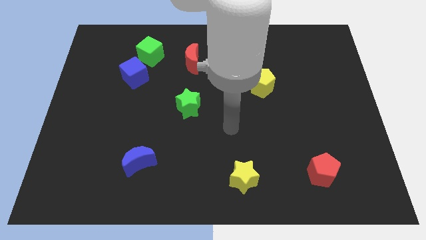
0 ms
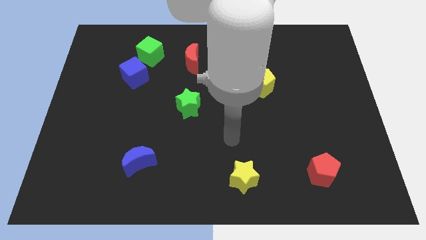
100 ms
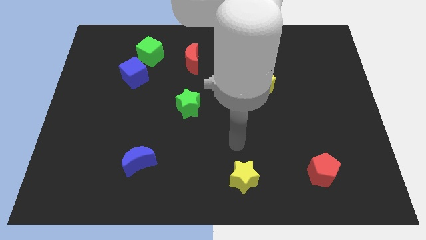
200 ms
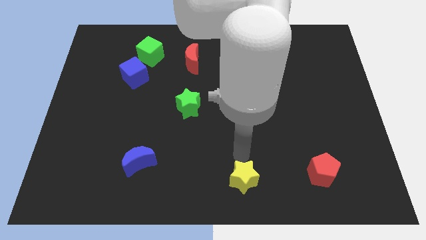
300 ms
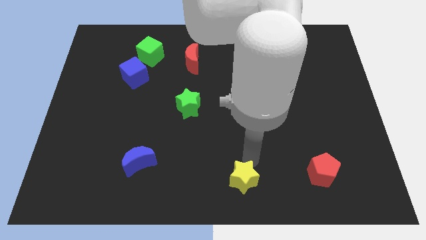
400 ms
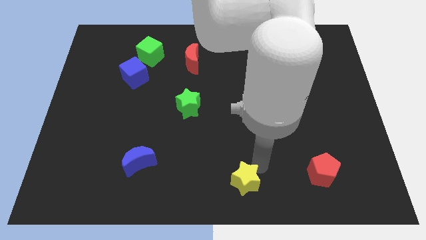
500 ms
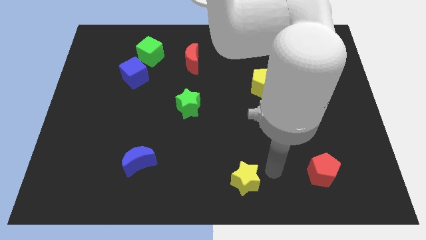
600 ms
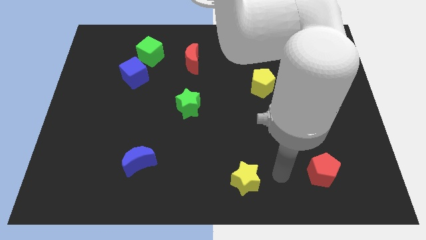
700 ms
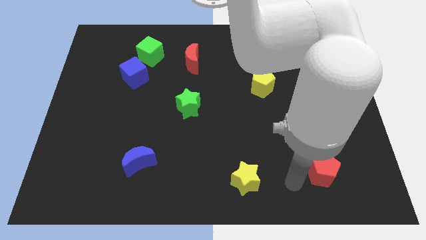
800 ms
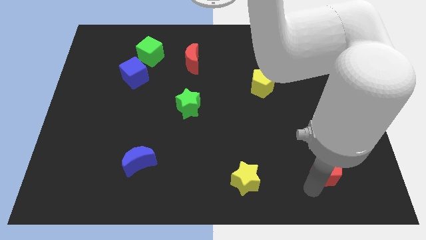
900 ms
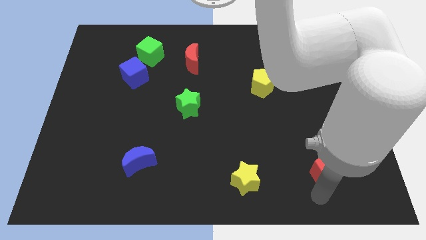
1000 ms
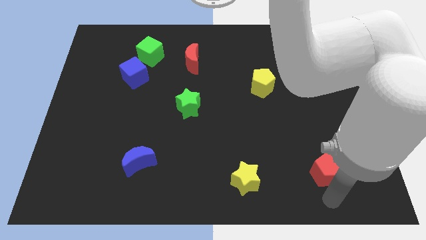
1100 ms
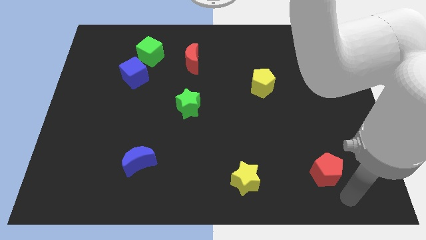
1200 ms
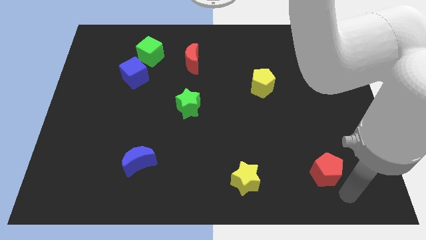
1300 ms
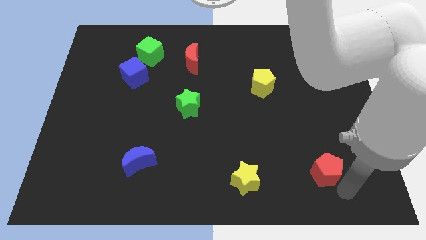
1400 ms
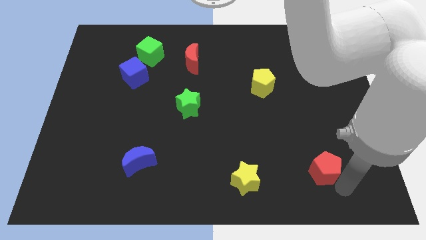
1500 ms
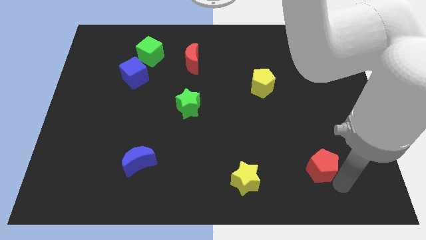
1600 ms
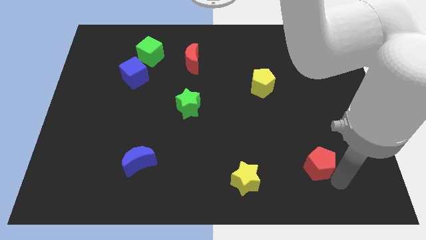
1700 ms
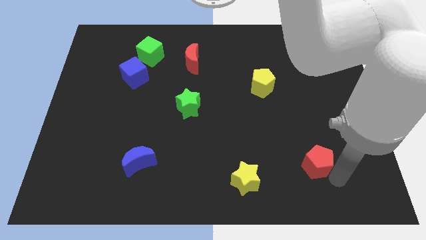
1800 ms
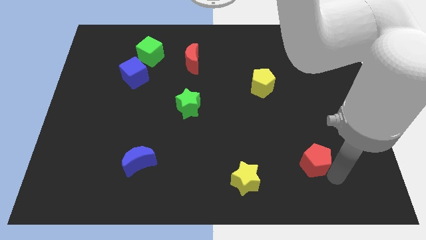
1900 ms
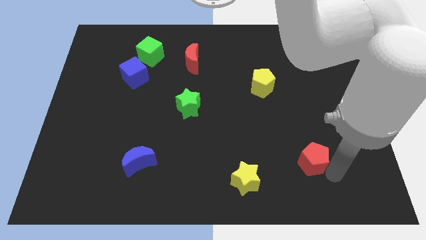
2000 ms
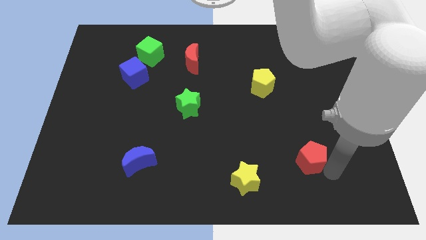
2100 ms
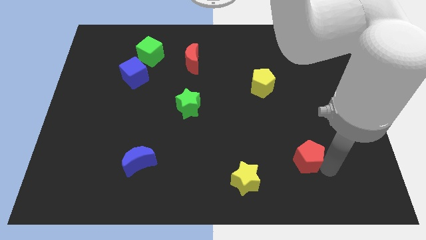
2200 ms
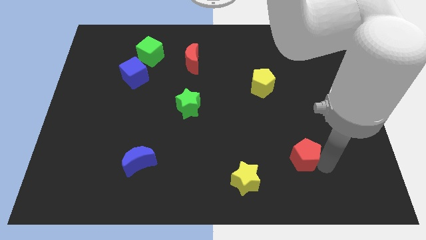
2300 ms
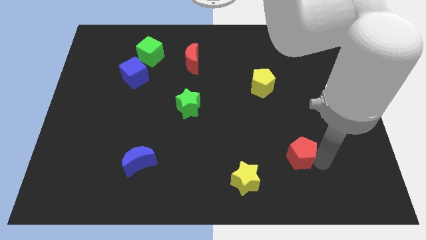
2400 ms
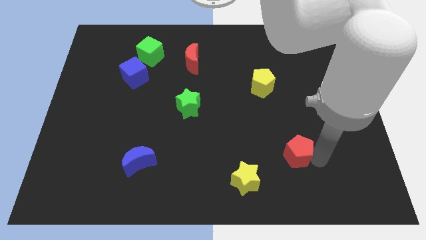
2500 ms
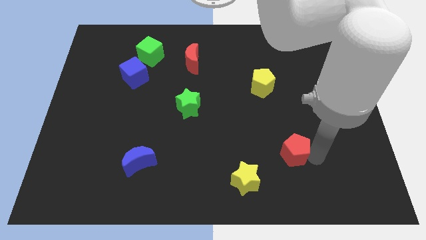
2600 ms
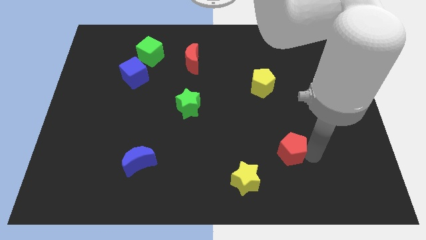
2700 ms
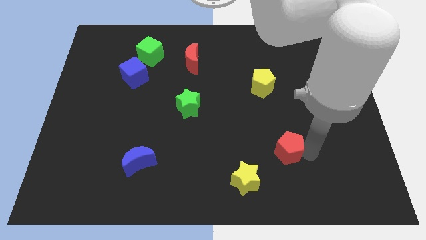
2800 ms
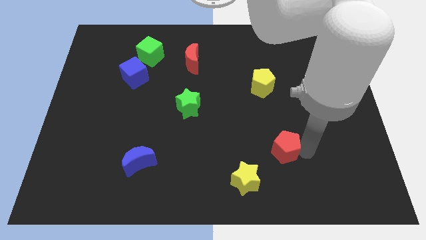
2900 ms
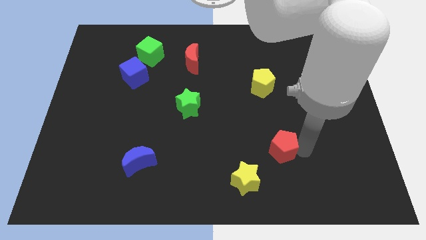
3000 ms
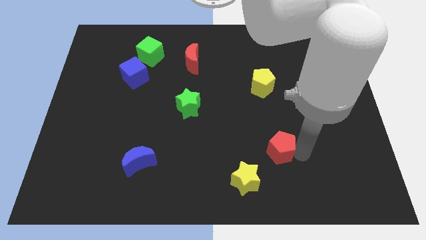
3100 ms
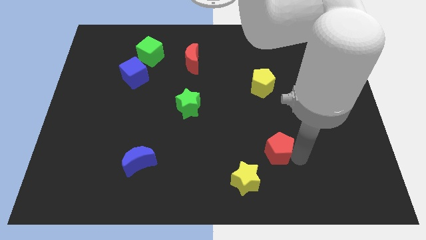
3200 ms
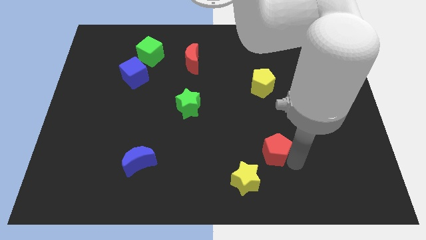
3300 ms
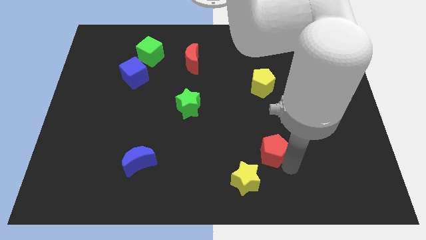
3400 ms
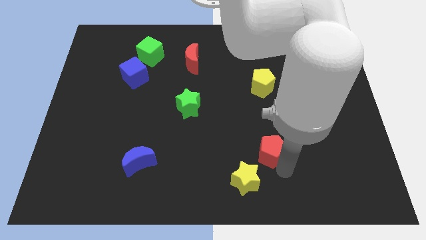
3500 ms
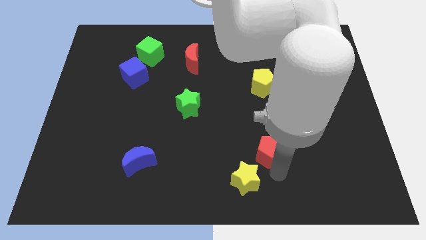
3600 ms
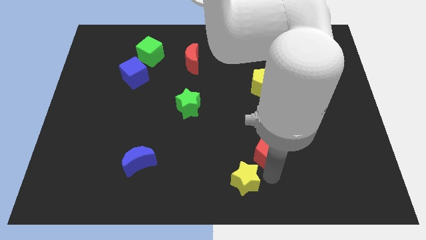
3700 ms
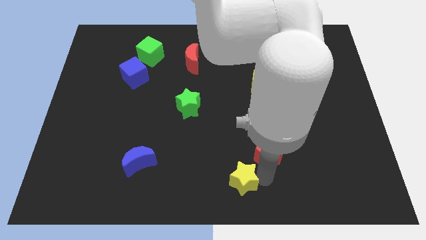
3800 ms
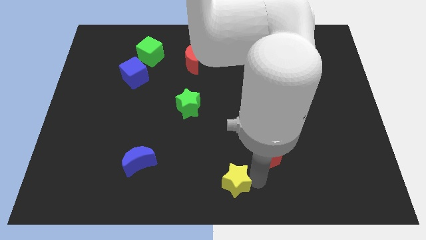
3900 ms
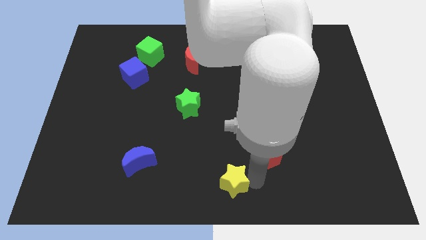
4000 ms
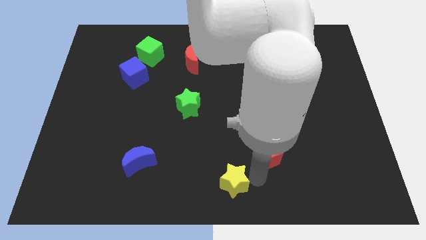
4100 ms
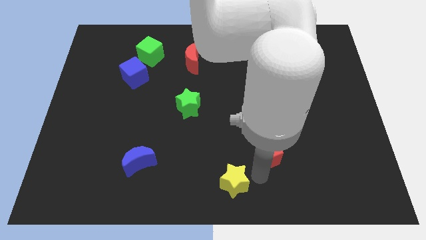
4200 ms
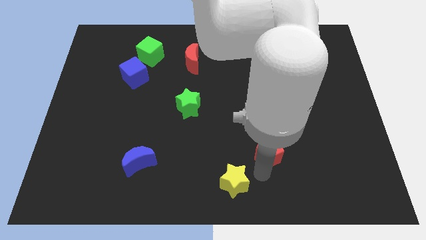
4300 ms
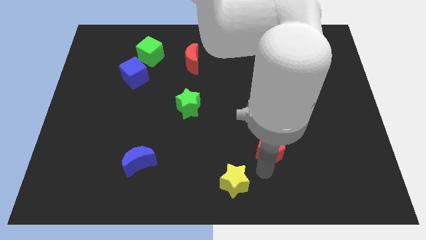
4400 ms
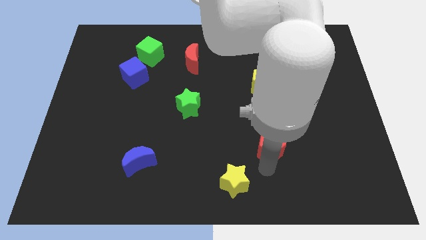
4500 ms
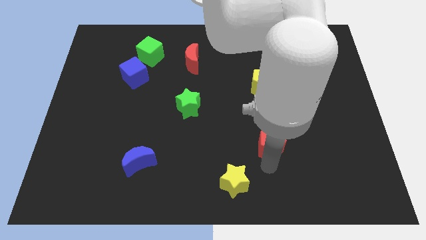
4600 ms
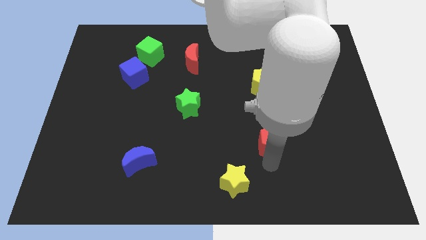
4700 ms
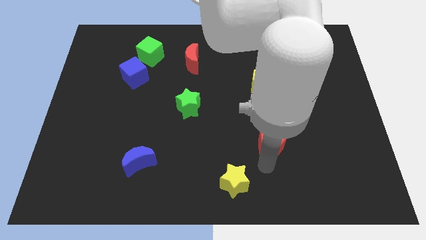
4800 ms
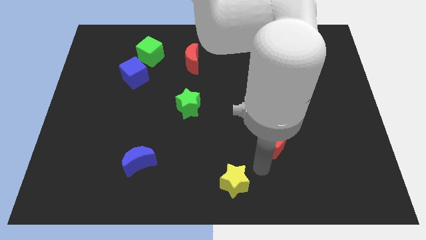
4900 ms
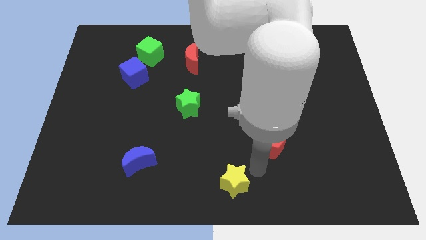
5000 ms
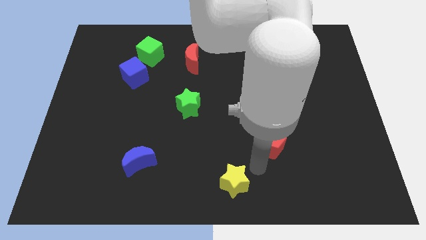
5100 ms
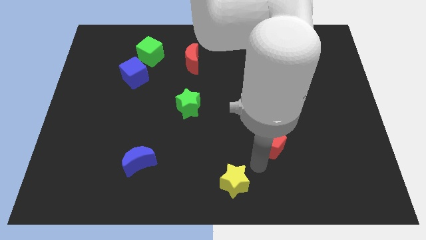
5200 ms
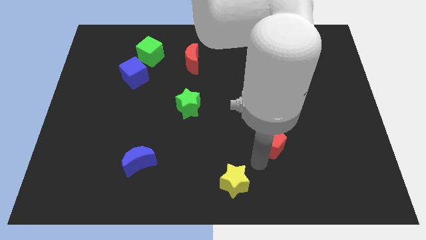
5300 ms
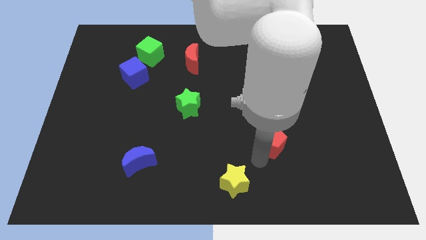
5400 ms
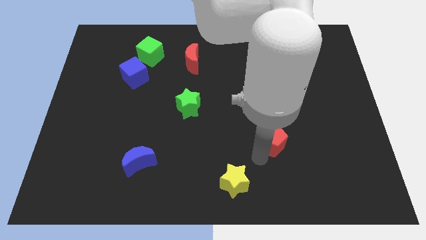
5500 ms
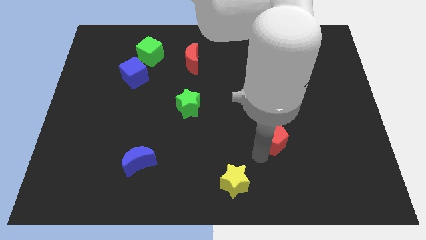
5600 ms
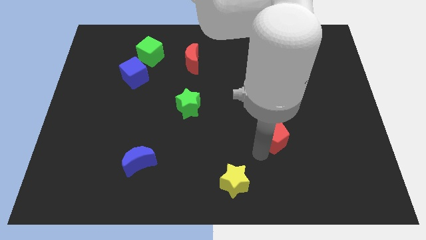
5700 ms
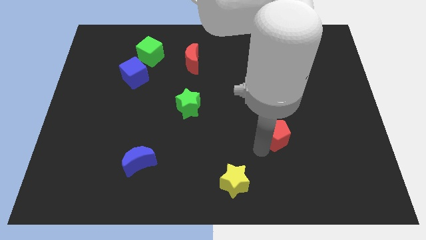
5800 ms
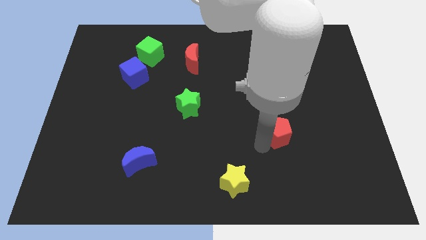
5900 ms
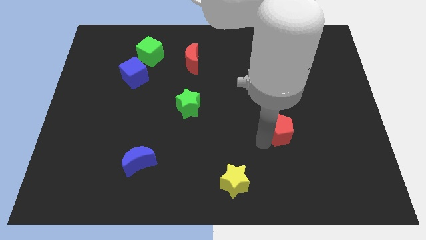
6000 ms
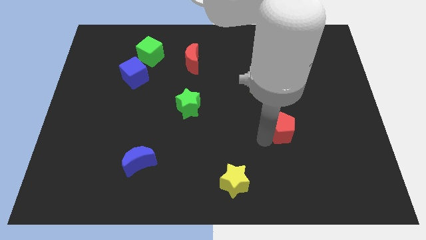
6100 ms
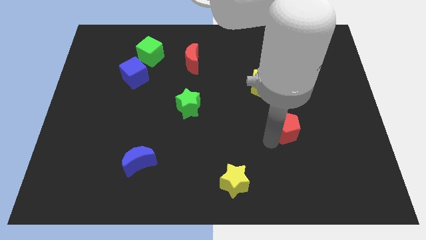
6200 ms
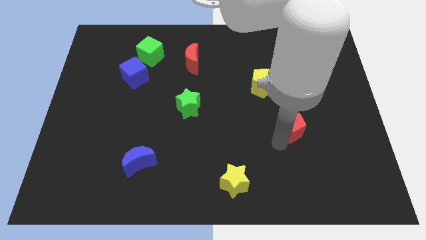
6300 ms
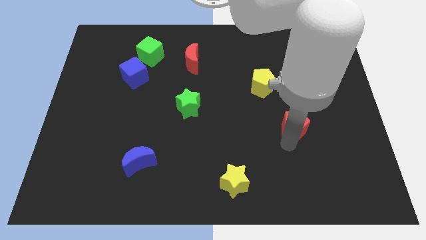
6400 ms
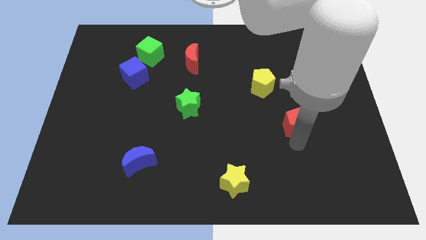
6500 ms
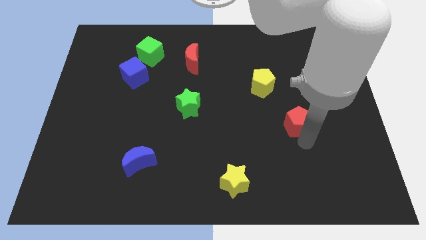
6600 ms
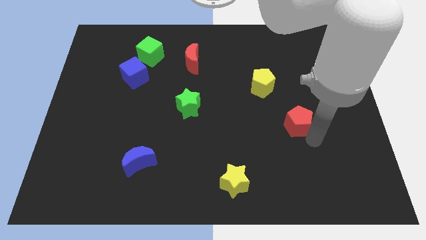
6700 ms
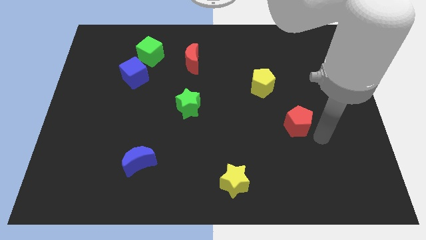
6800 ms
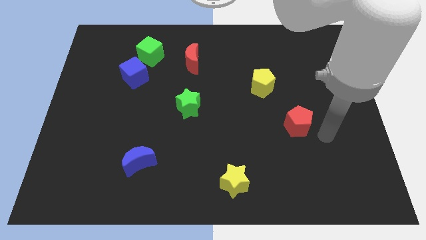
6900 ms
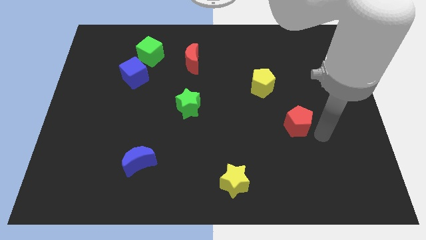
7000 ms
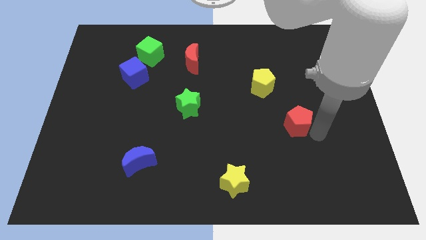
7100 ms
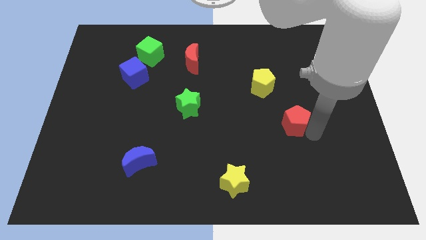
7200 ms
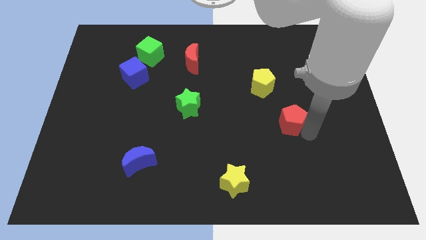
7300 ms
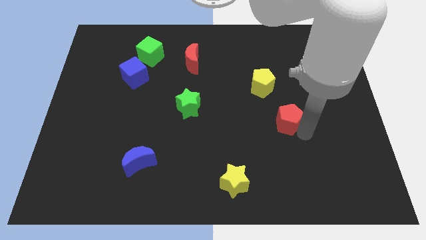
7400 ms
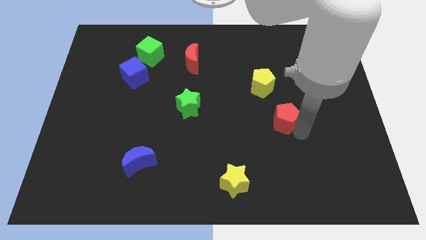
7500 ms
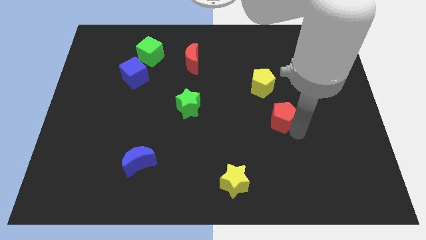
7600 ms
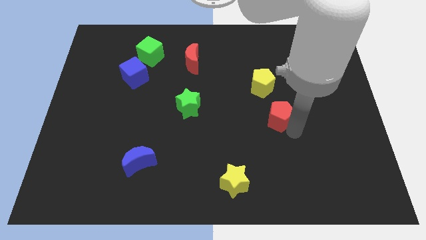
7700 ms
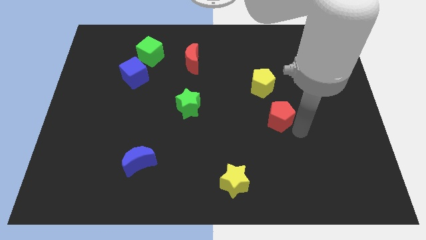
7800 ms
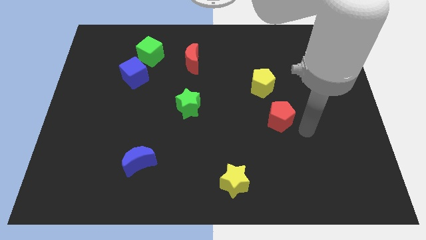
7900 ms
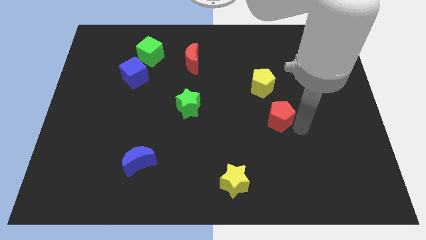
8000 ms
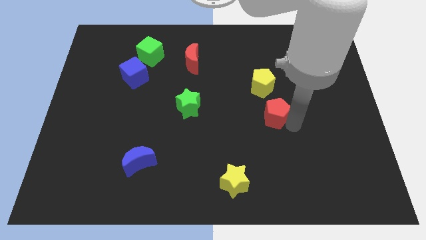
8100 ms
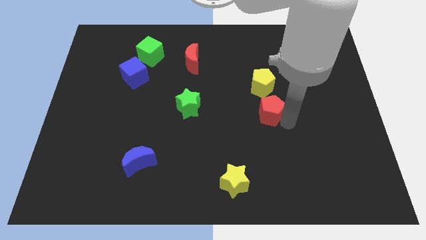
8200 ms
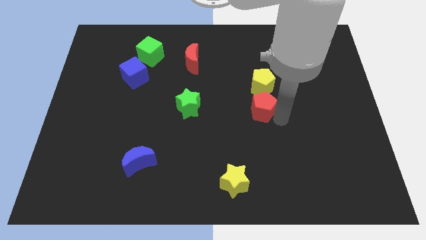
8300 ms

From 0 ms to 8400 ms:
move the red pentagon to the bottom left of the yellow pentagon
